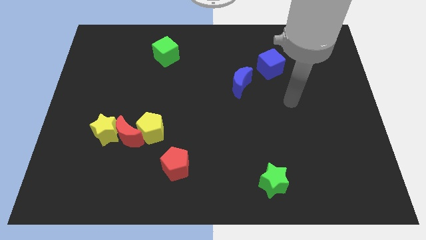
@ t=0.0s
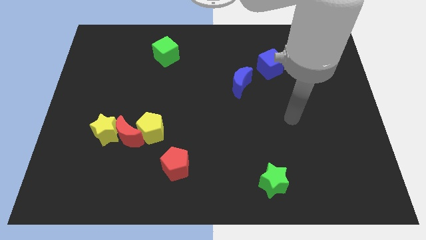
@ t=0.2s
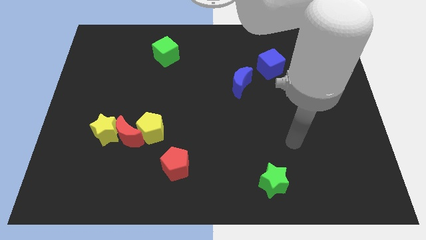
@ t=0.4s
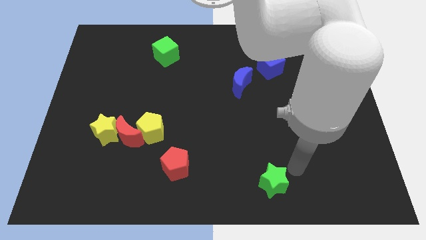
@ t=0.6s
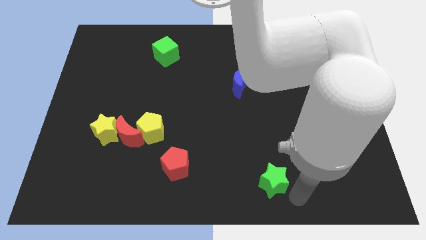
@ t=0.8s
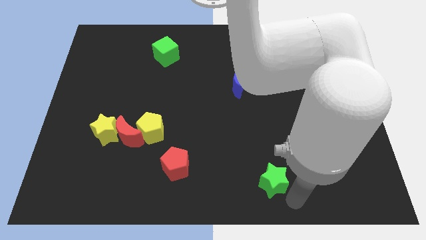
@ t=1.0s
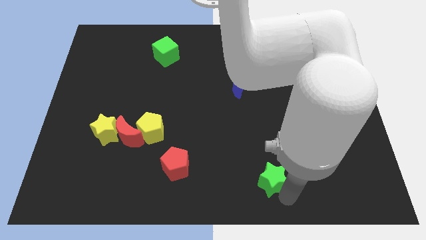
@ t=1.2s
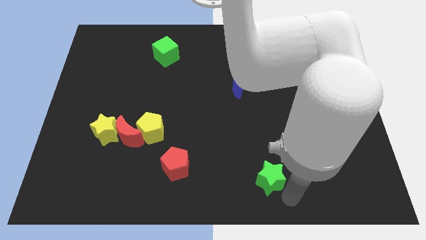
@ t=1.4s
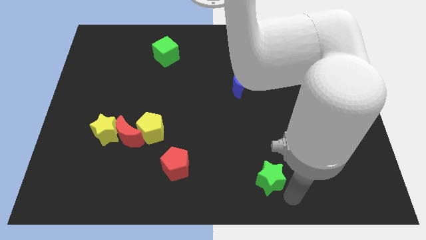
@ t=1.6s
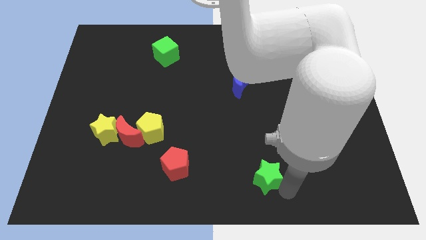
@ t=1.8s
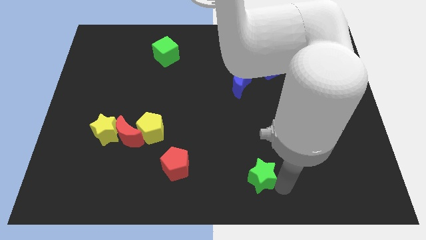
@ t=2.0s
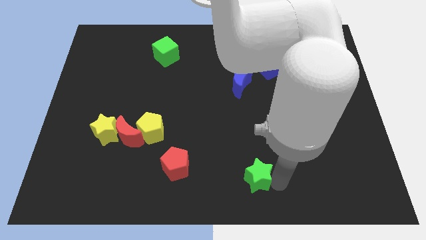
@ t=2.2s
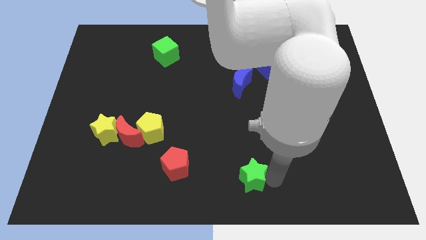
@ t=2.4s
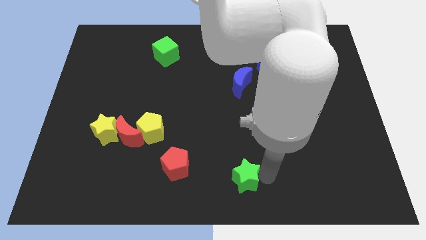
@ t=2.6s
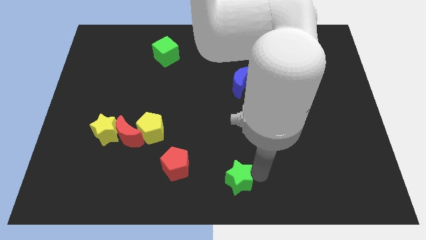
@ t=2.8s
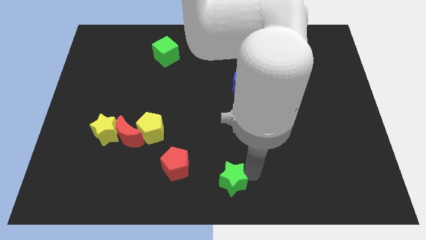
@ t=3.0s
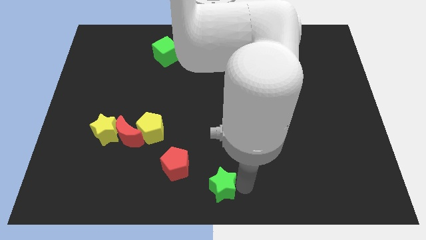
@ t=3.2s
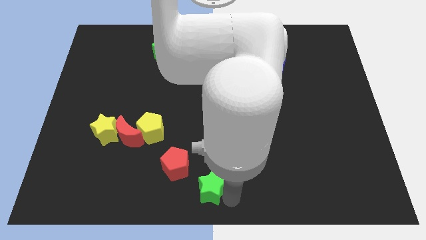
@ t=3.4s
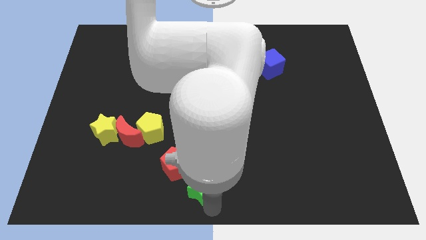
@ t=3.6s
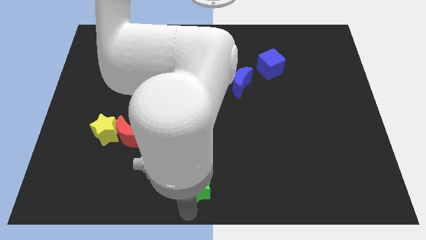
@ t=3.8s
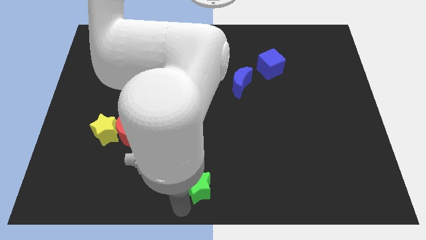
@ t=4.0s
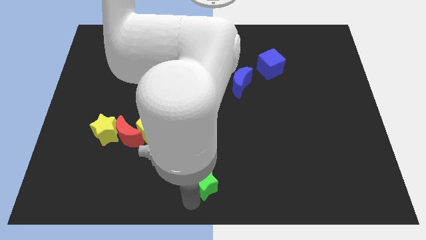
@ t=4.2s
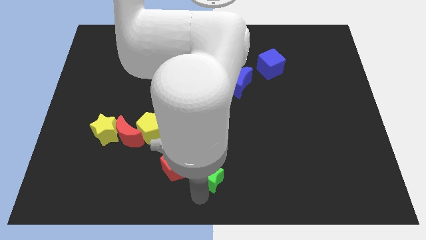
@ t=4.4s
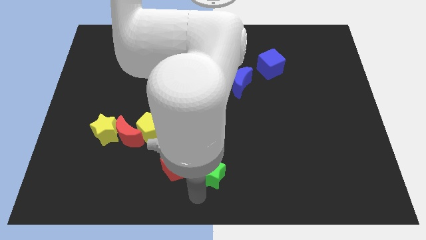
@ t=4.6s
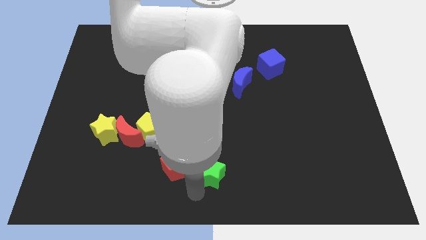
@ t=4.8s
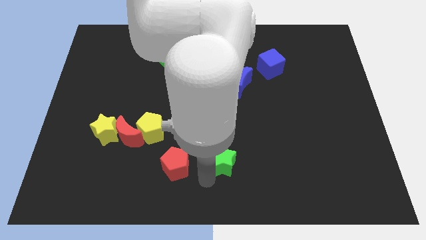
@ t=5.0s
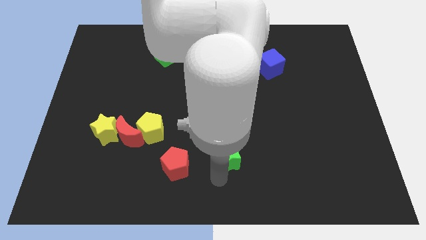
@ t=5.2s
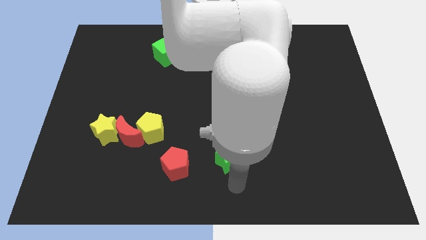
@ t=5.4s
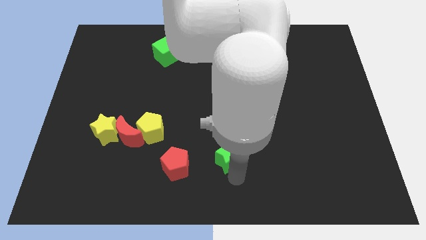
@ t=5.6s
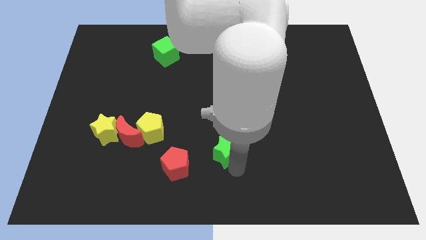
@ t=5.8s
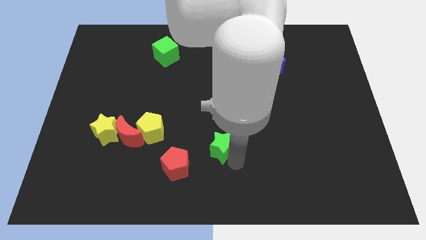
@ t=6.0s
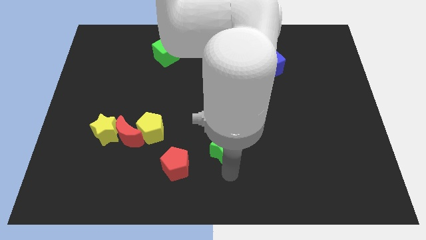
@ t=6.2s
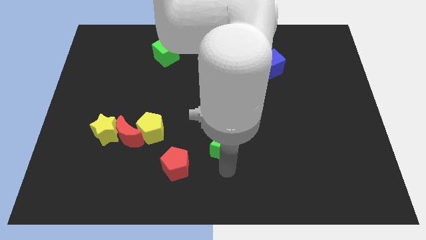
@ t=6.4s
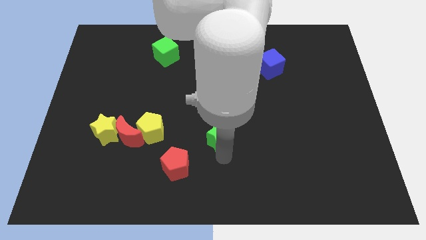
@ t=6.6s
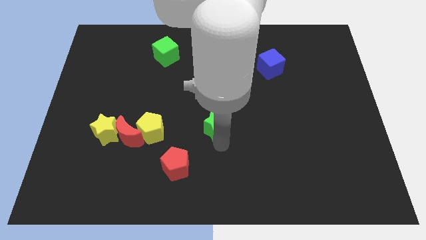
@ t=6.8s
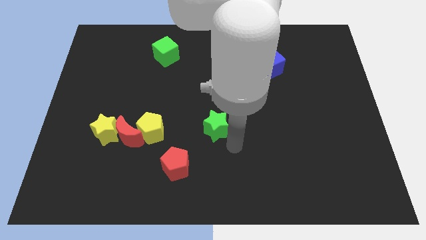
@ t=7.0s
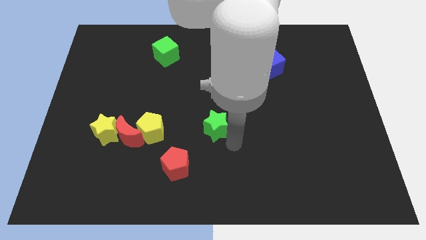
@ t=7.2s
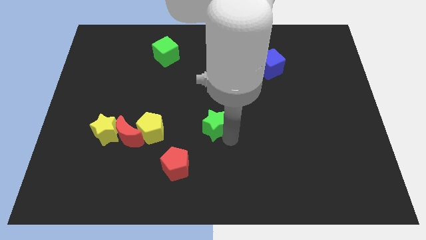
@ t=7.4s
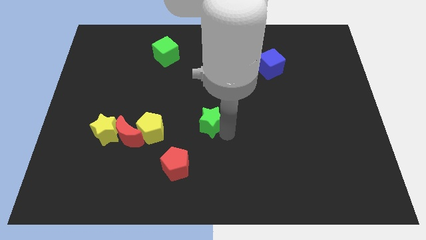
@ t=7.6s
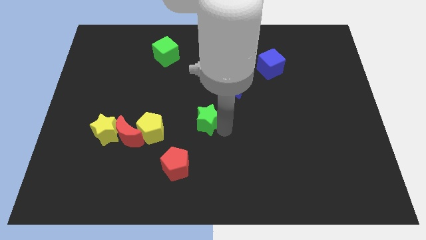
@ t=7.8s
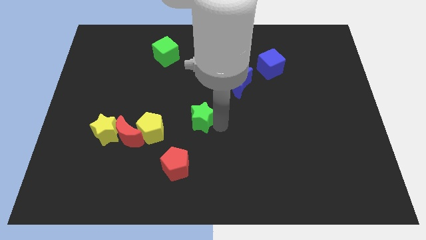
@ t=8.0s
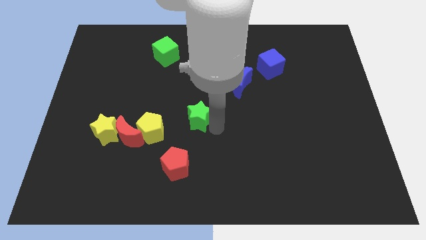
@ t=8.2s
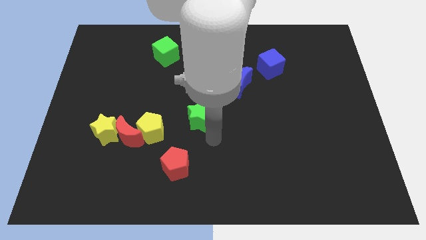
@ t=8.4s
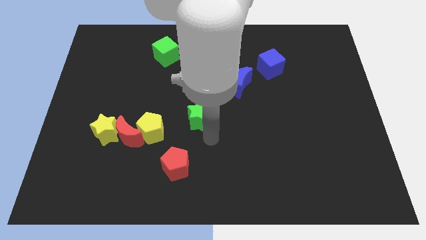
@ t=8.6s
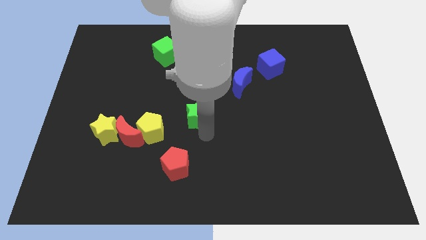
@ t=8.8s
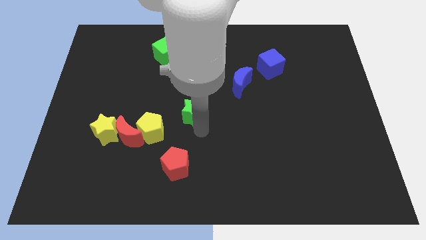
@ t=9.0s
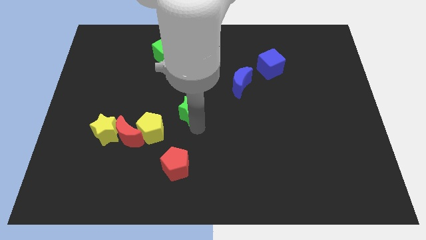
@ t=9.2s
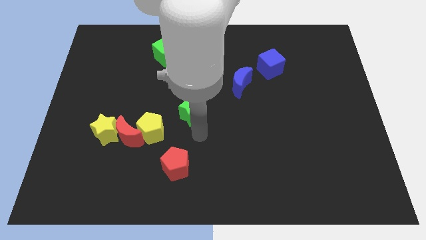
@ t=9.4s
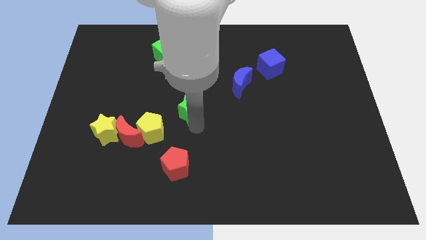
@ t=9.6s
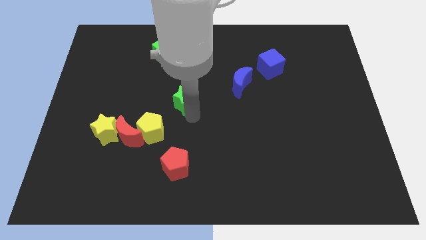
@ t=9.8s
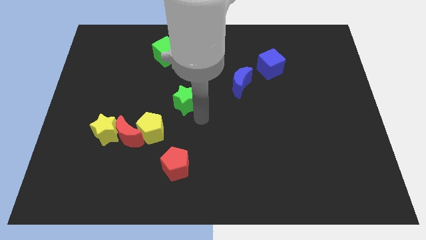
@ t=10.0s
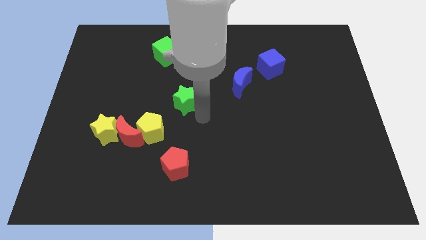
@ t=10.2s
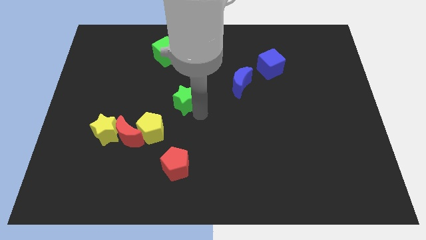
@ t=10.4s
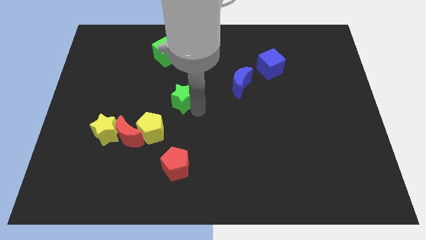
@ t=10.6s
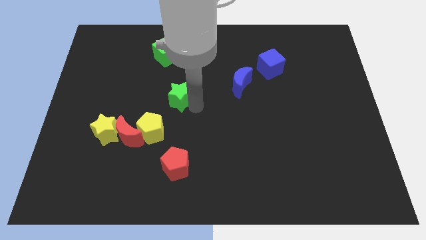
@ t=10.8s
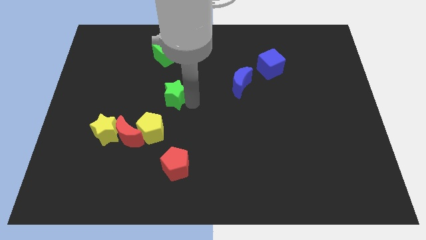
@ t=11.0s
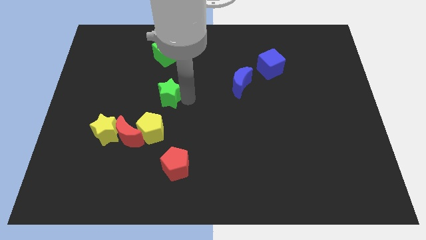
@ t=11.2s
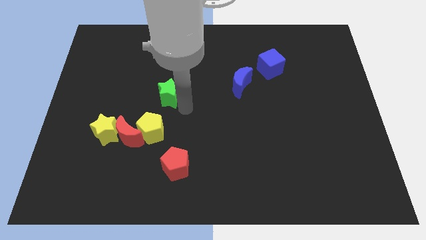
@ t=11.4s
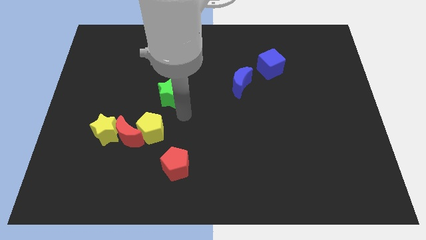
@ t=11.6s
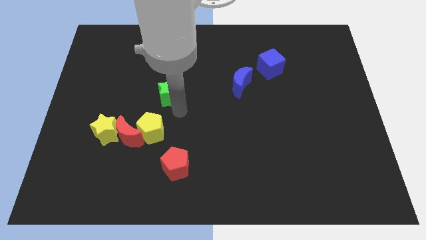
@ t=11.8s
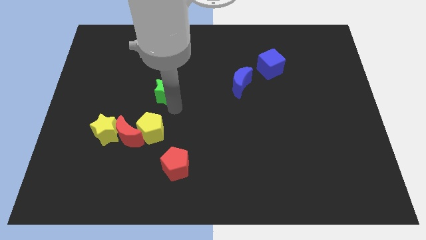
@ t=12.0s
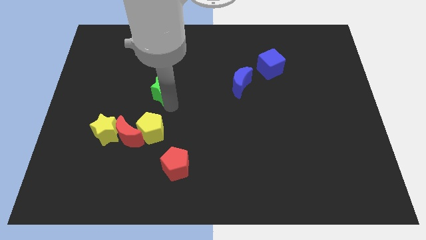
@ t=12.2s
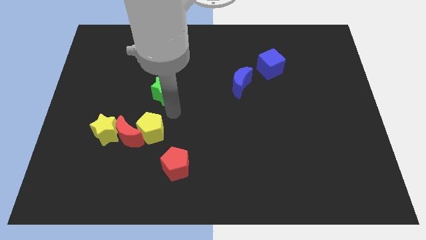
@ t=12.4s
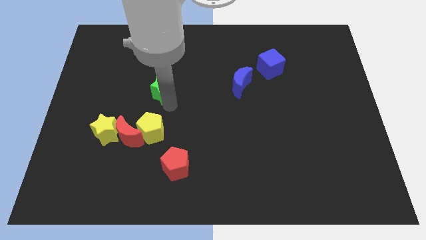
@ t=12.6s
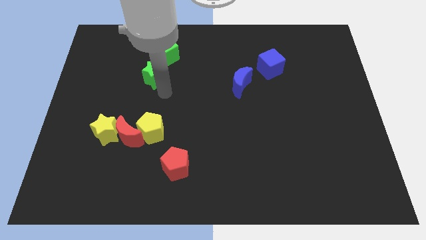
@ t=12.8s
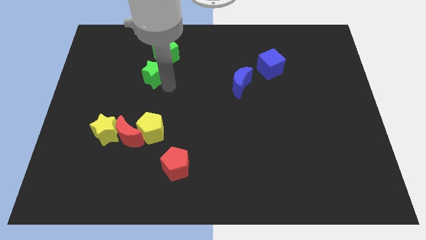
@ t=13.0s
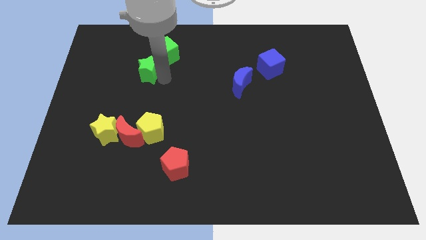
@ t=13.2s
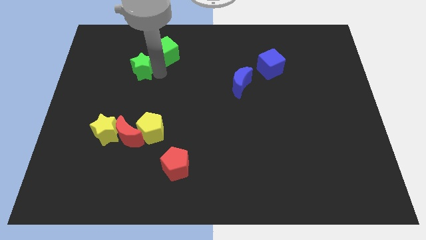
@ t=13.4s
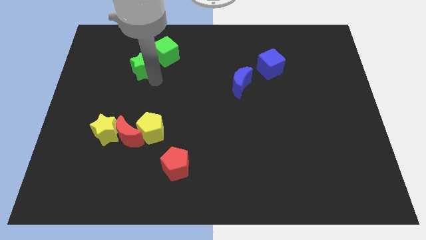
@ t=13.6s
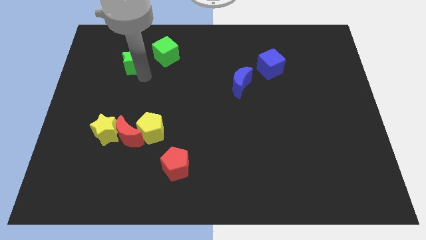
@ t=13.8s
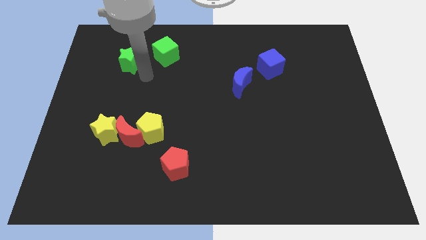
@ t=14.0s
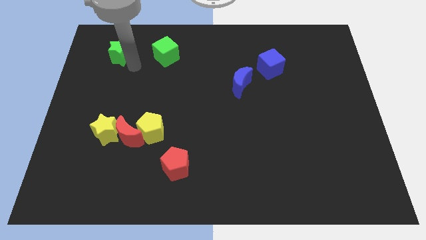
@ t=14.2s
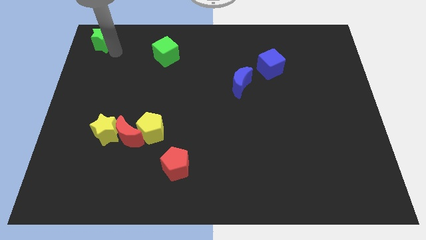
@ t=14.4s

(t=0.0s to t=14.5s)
move the green star to the top left of the board
